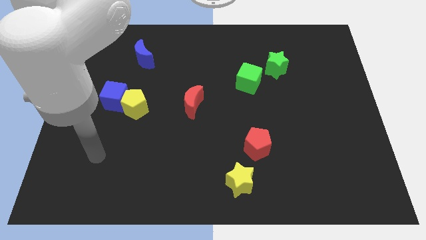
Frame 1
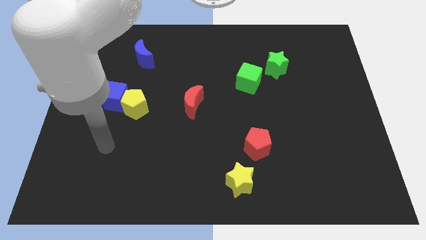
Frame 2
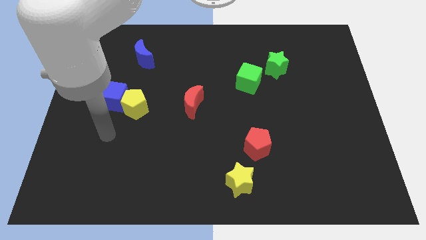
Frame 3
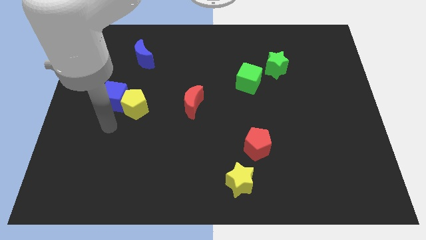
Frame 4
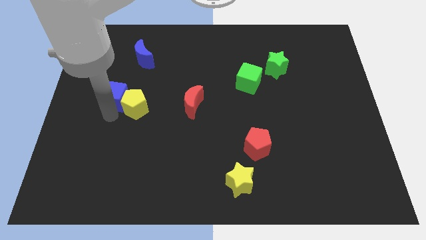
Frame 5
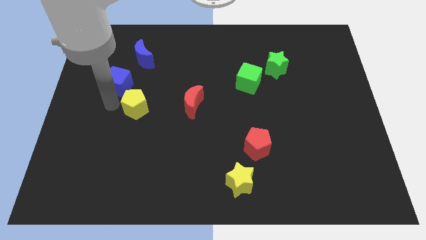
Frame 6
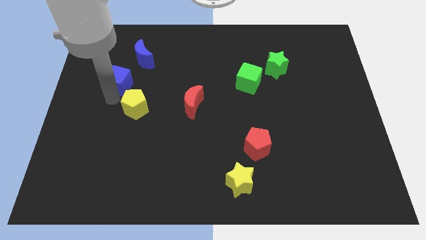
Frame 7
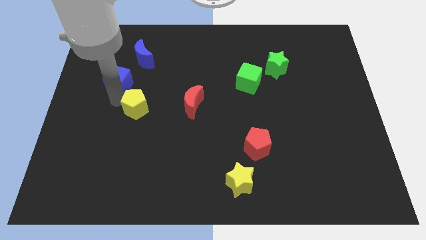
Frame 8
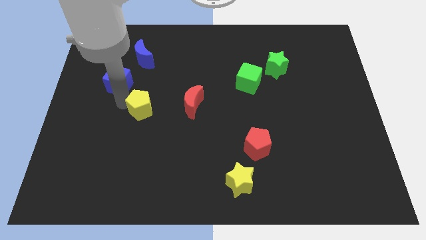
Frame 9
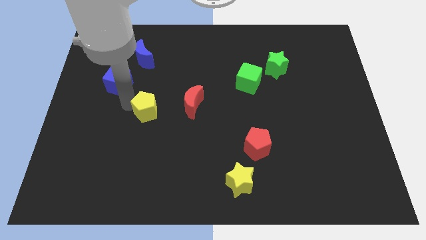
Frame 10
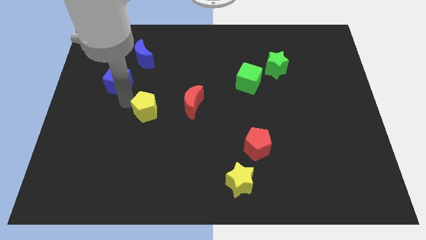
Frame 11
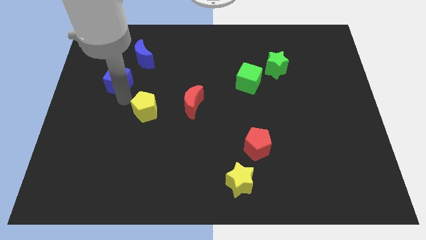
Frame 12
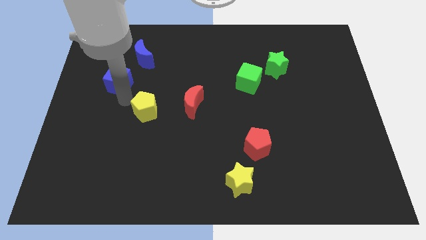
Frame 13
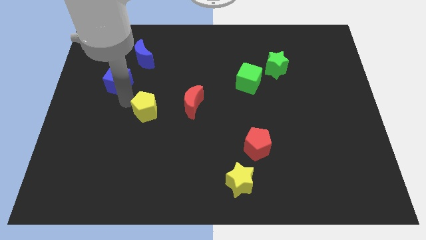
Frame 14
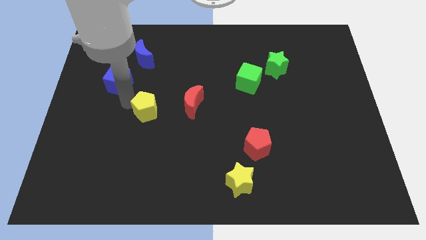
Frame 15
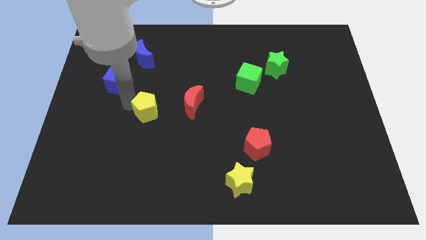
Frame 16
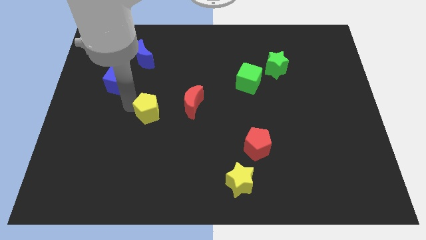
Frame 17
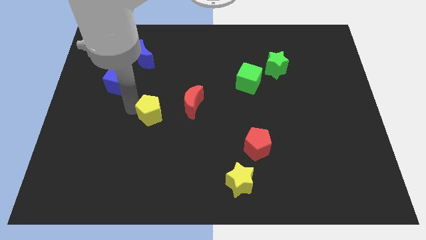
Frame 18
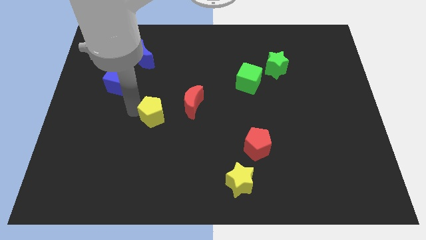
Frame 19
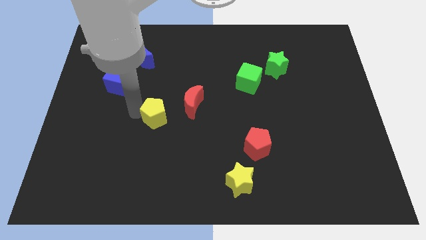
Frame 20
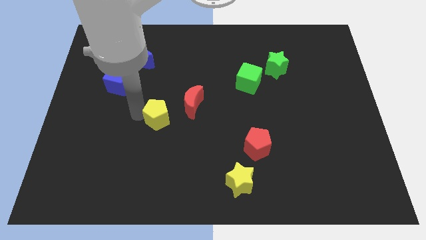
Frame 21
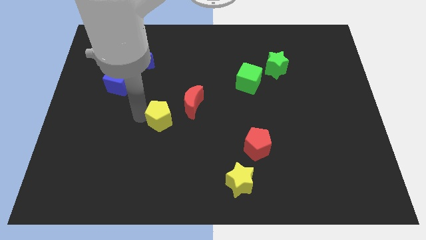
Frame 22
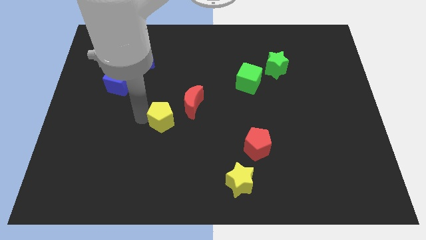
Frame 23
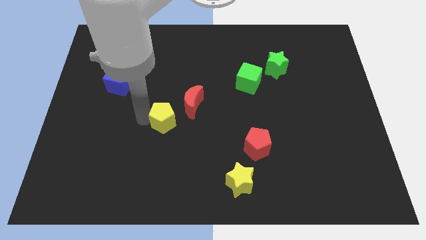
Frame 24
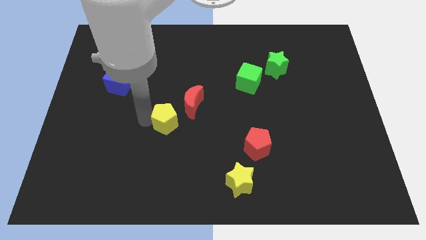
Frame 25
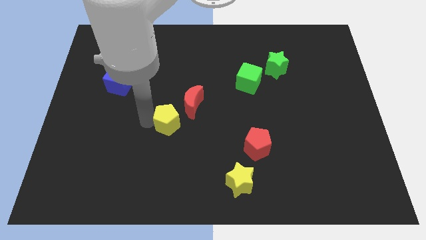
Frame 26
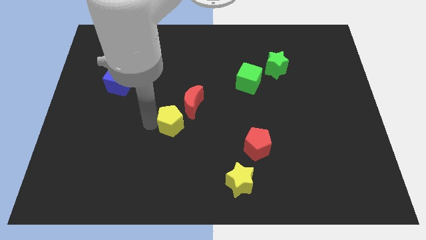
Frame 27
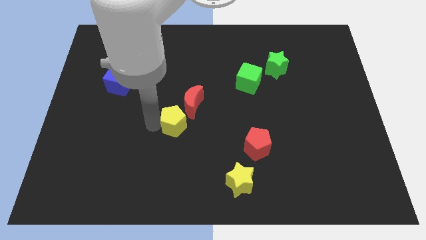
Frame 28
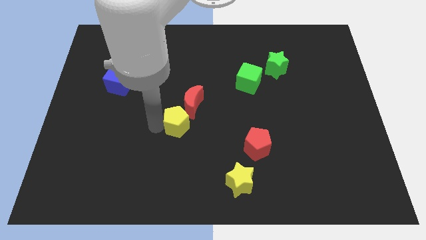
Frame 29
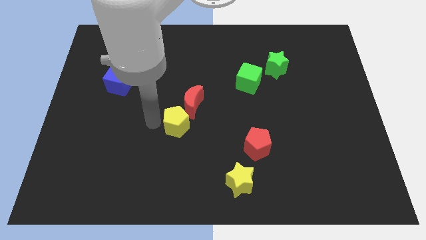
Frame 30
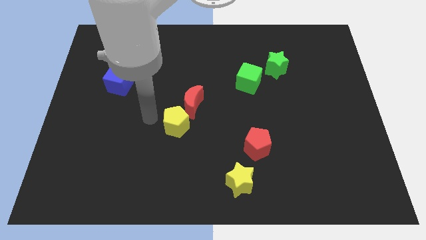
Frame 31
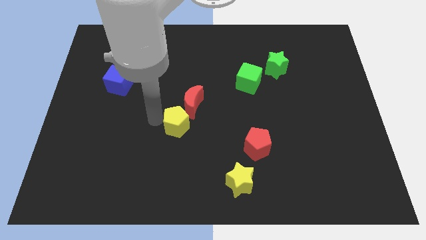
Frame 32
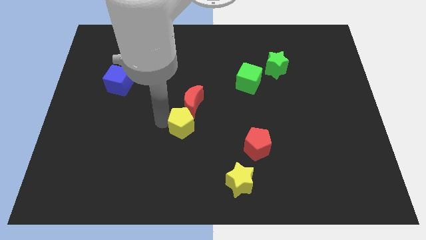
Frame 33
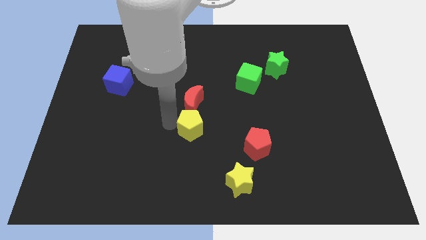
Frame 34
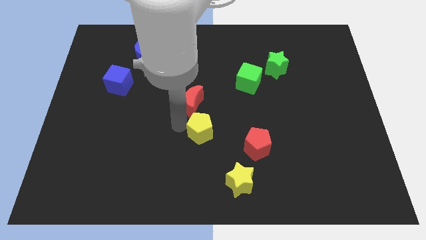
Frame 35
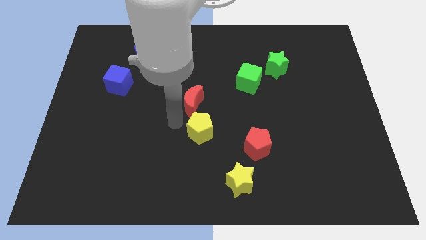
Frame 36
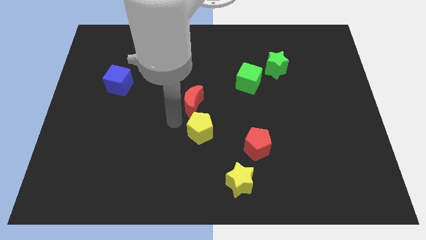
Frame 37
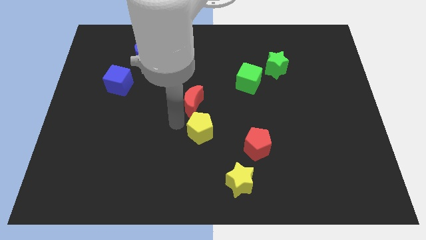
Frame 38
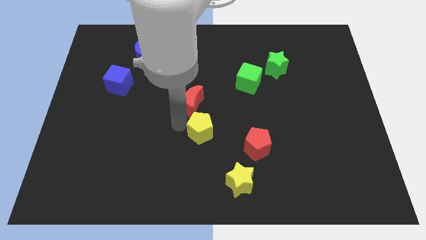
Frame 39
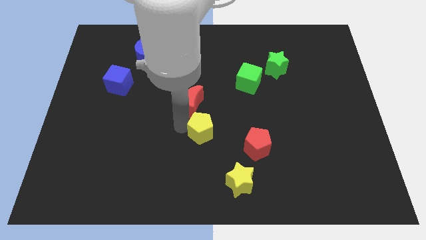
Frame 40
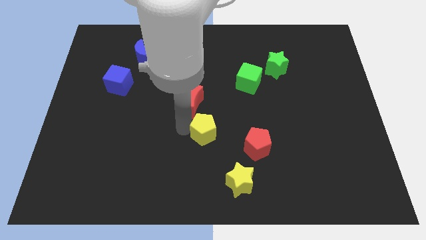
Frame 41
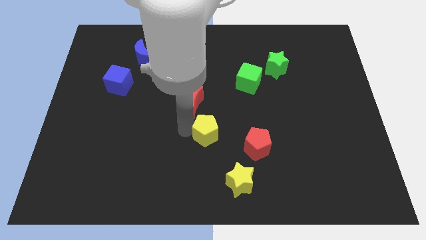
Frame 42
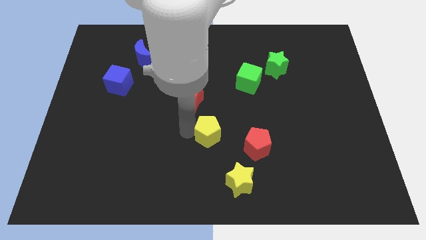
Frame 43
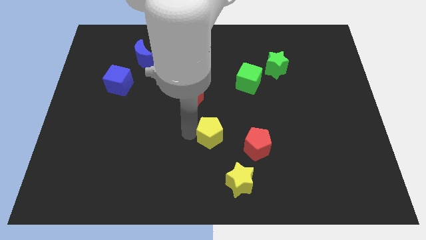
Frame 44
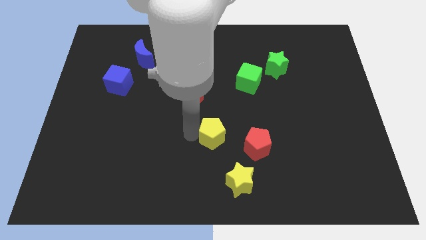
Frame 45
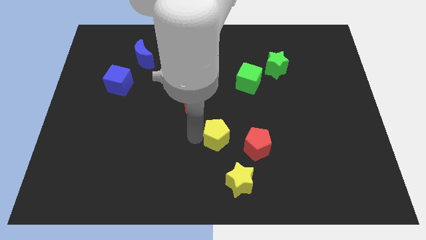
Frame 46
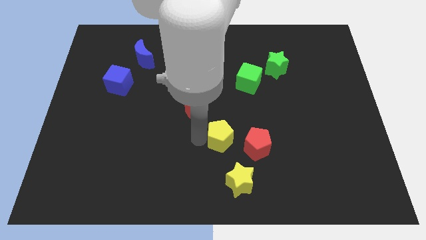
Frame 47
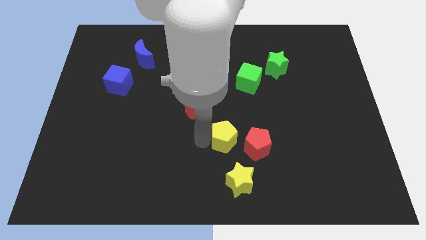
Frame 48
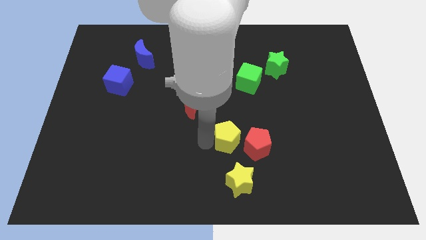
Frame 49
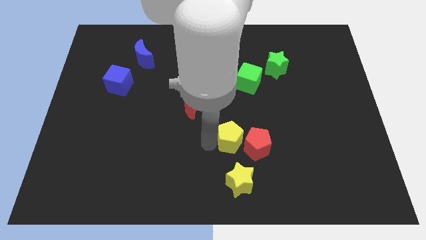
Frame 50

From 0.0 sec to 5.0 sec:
move the yellow pentagon towards the red pentagon

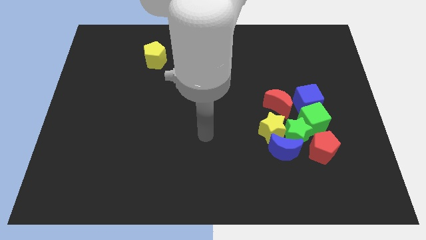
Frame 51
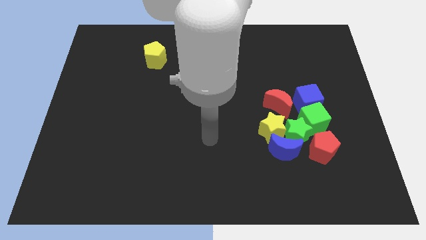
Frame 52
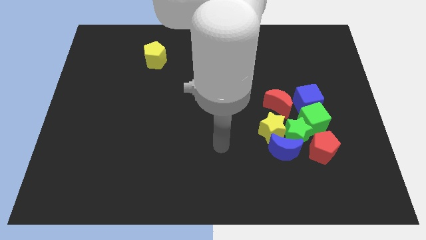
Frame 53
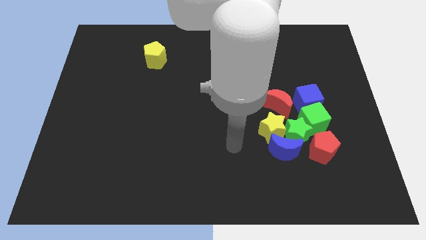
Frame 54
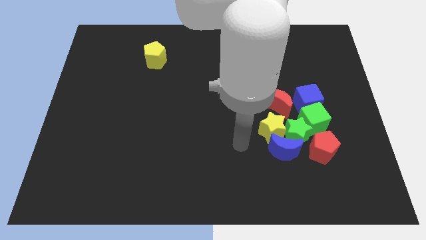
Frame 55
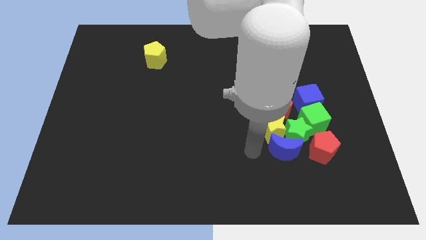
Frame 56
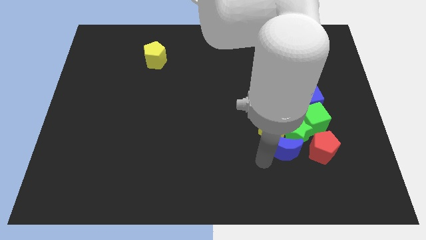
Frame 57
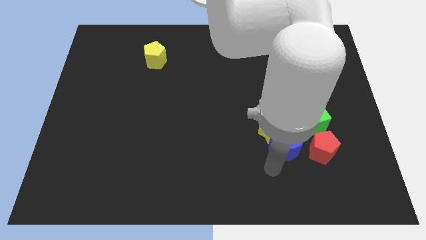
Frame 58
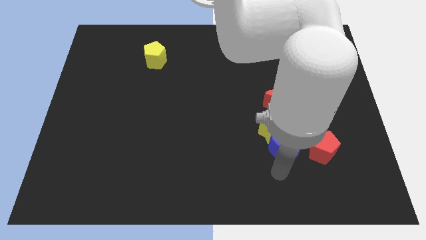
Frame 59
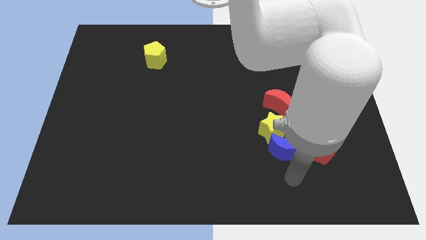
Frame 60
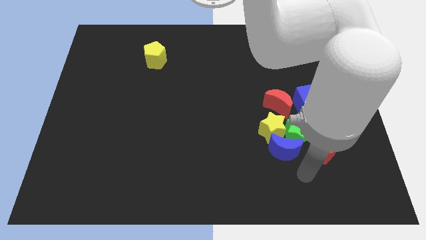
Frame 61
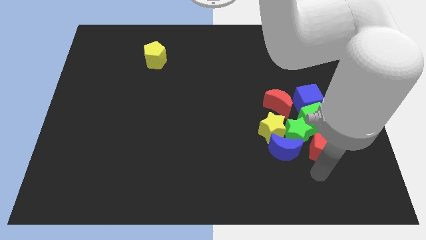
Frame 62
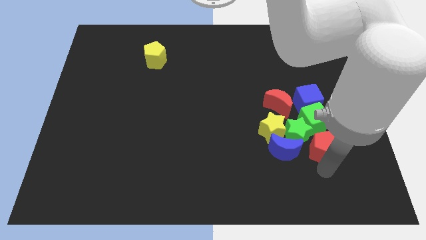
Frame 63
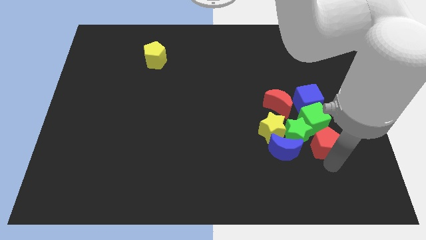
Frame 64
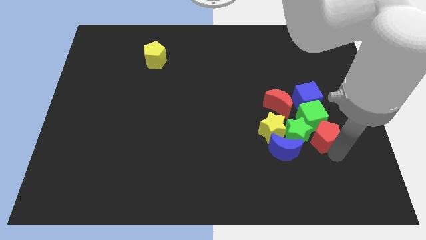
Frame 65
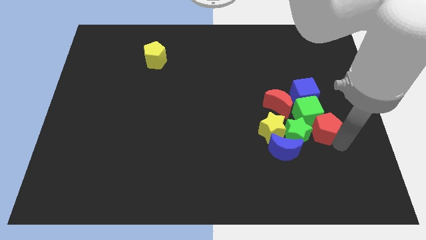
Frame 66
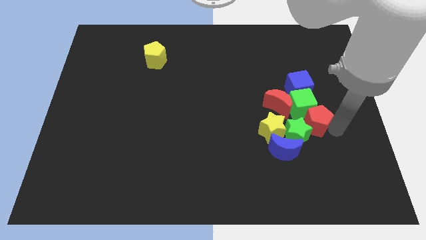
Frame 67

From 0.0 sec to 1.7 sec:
move the green cube next to the red moon

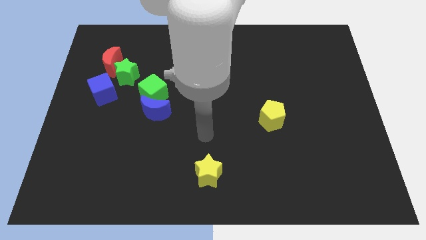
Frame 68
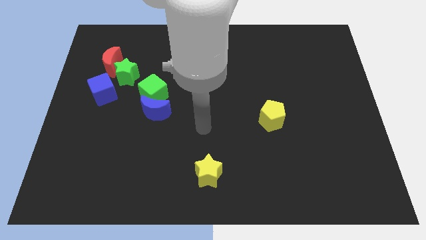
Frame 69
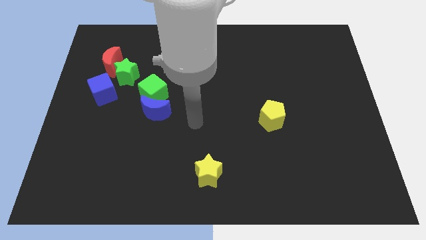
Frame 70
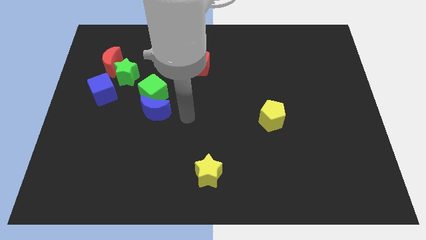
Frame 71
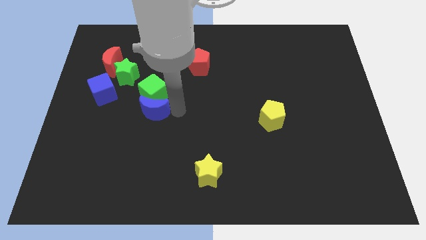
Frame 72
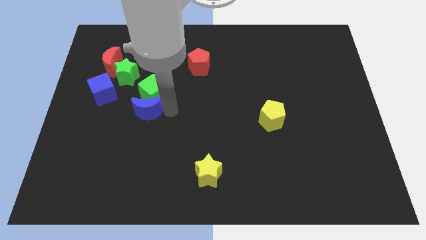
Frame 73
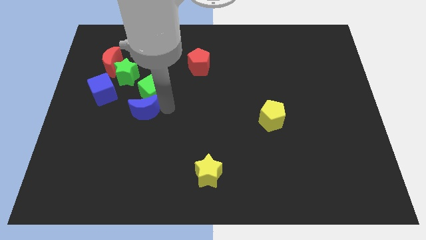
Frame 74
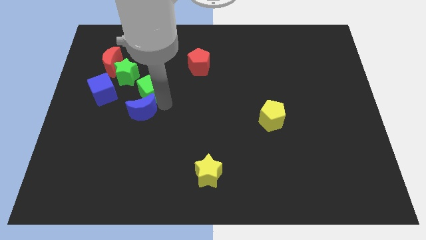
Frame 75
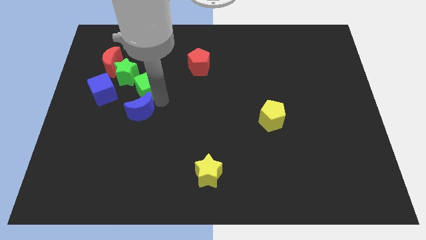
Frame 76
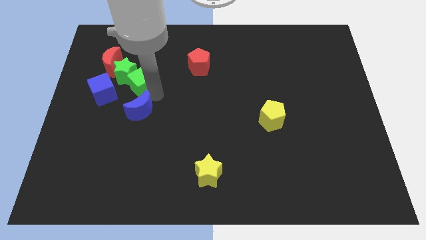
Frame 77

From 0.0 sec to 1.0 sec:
push the green cube next to the green star
